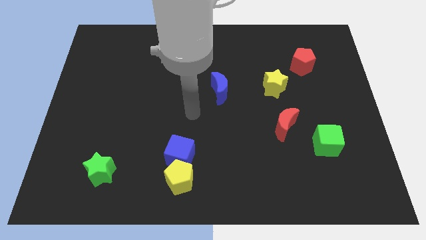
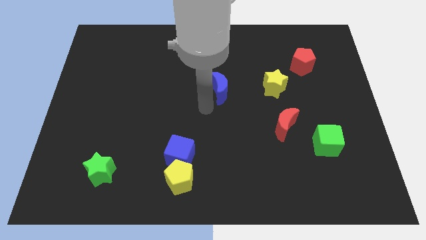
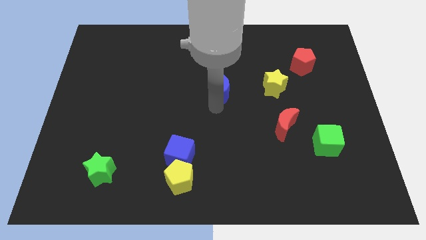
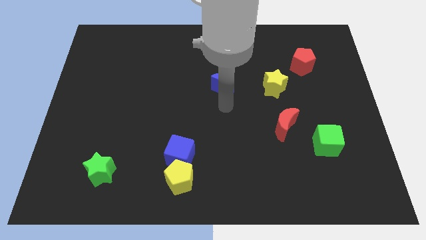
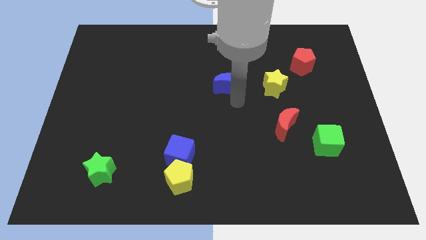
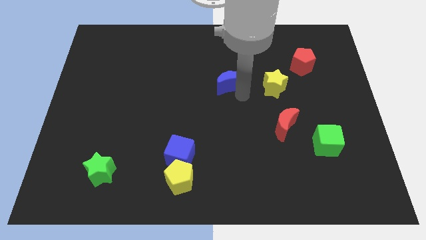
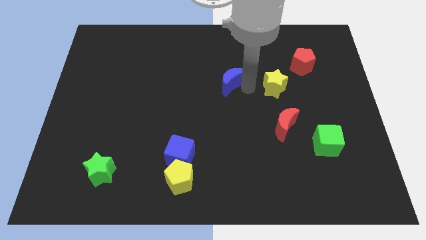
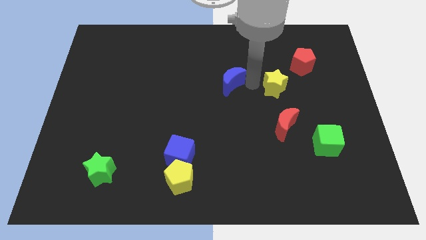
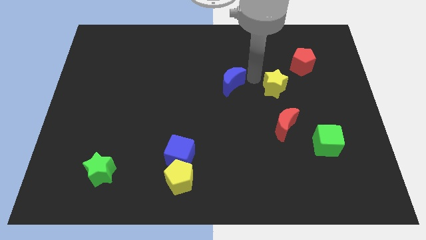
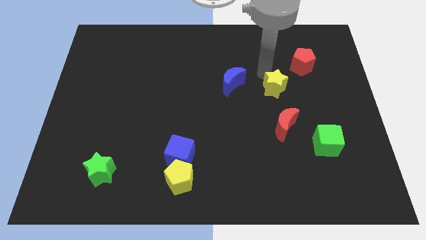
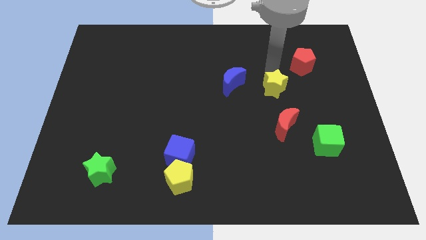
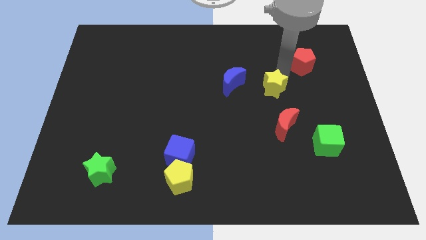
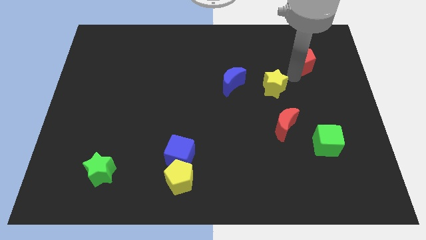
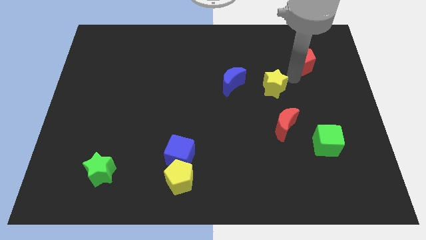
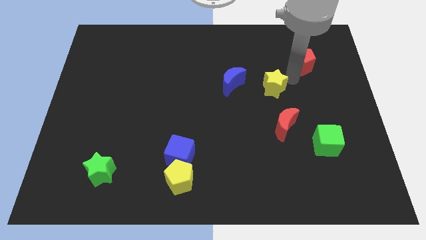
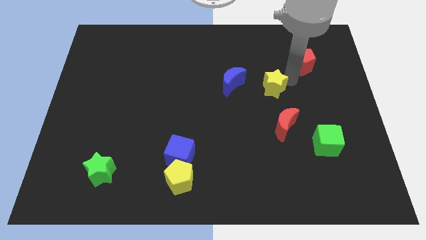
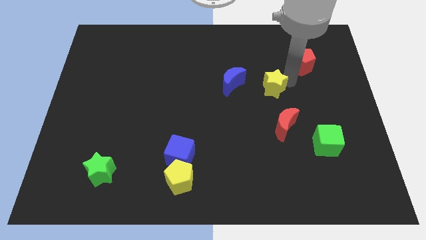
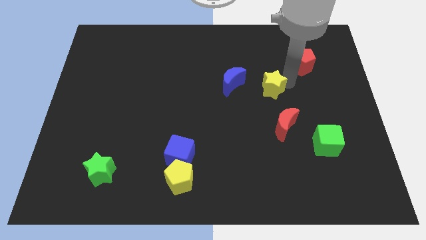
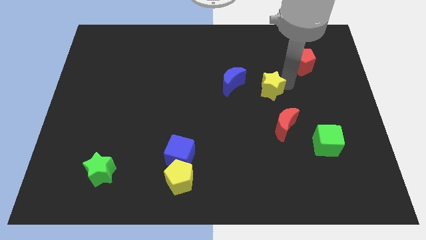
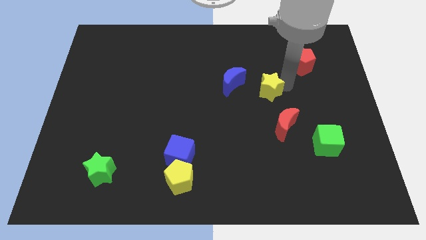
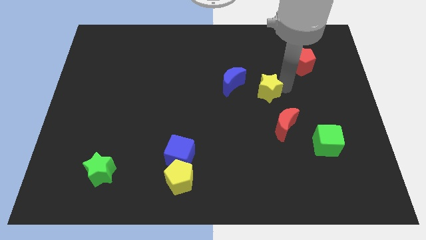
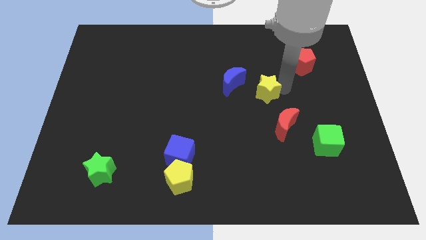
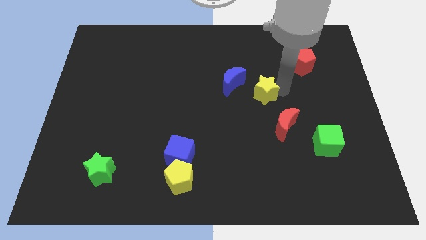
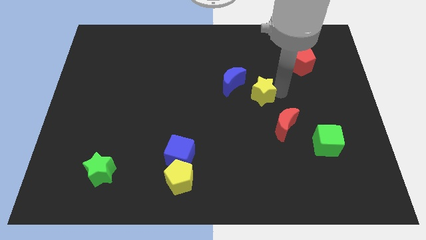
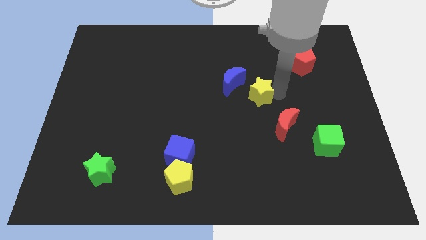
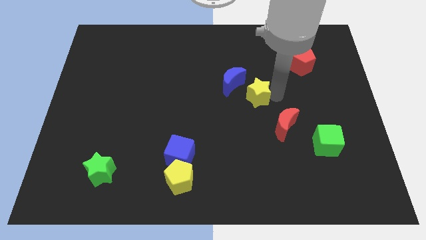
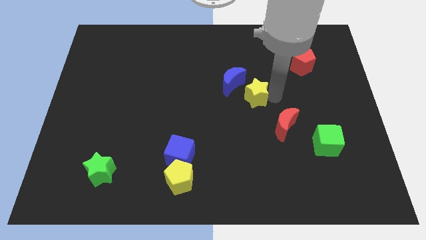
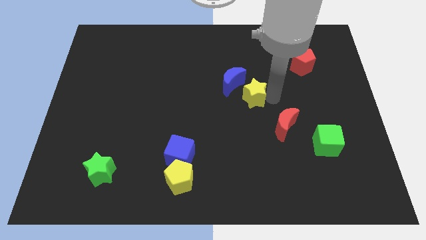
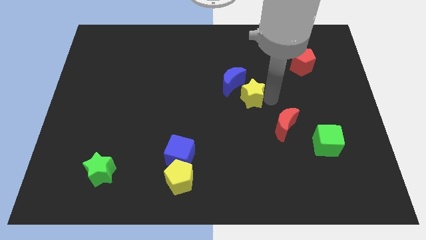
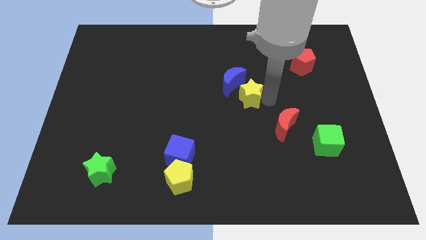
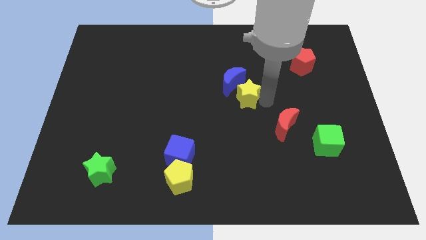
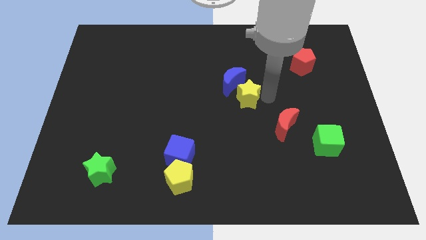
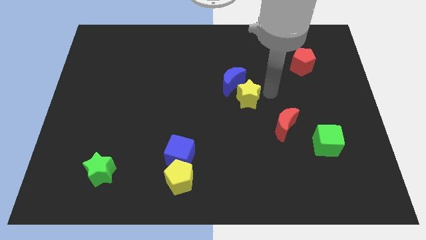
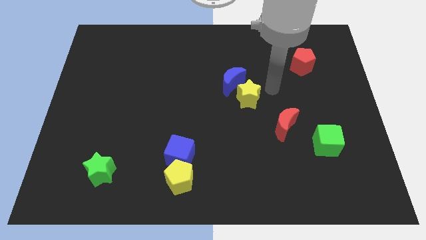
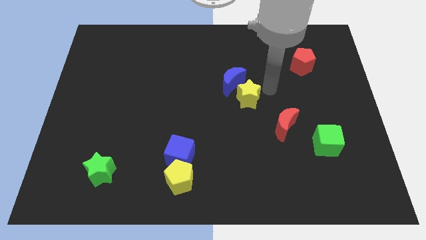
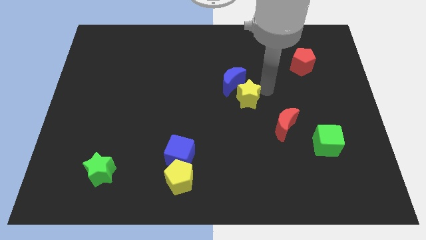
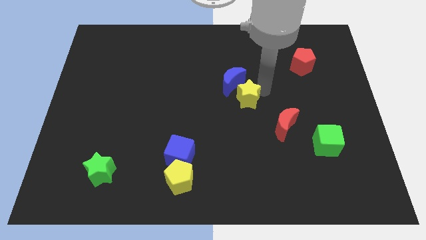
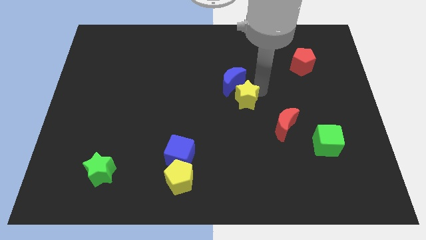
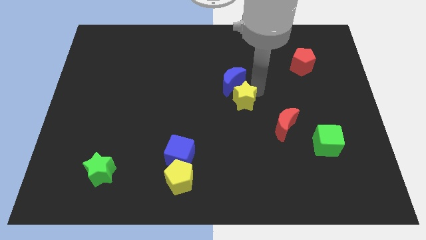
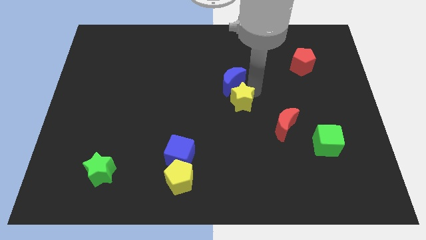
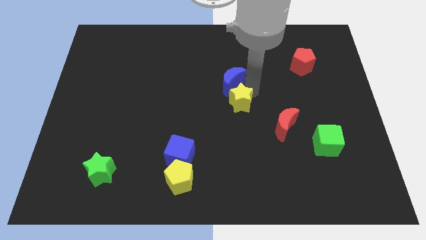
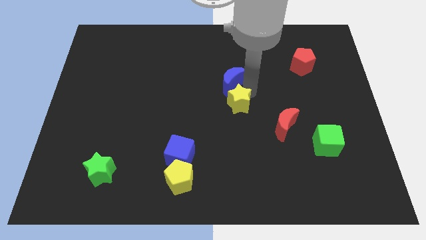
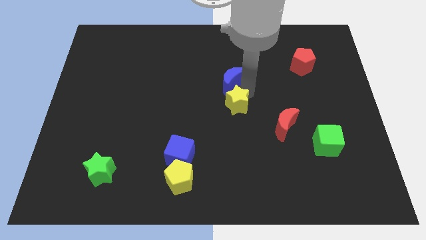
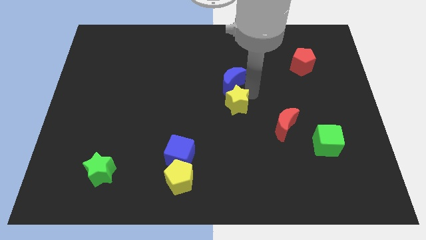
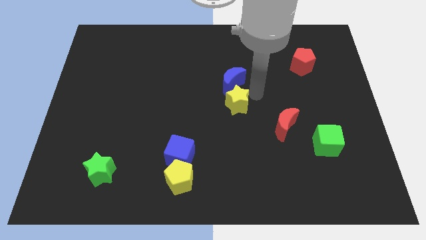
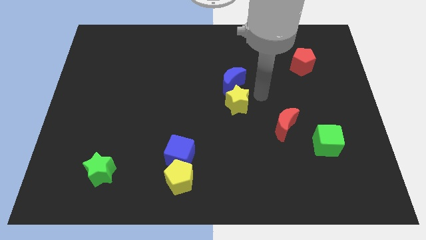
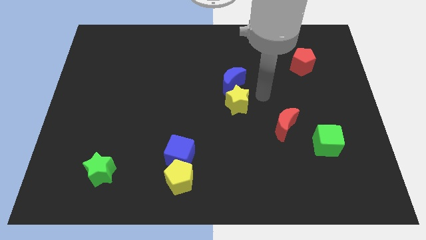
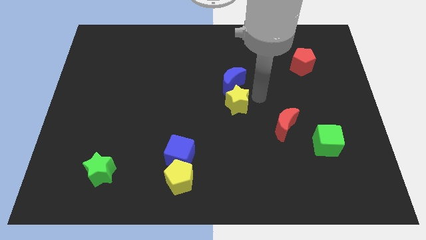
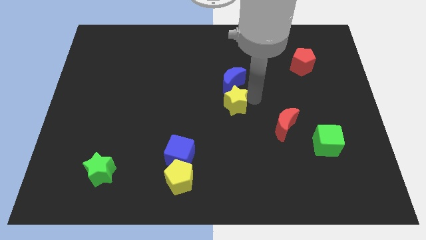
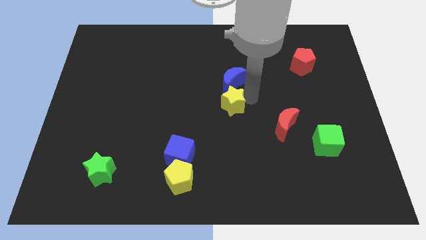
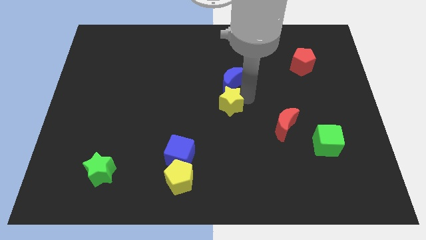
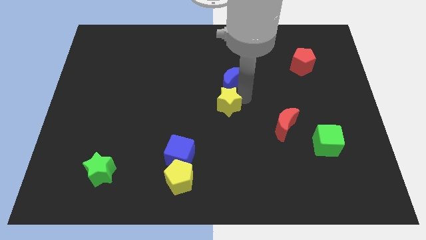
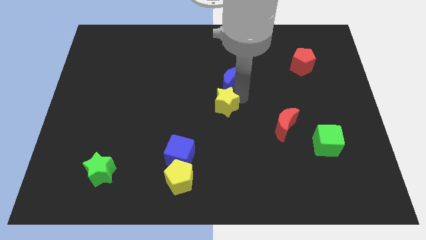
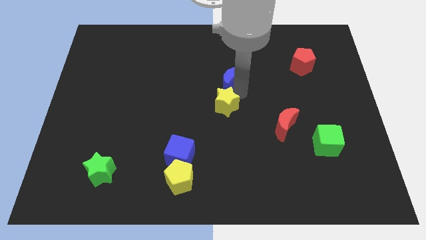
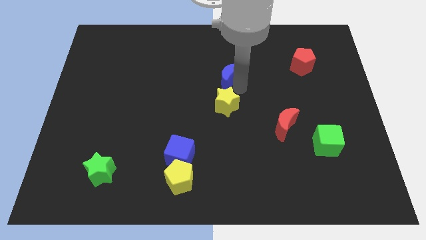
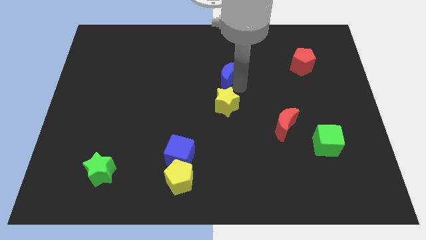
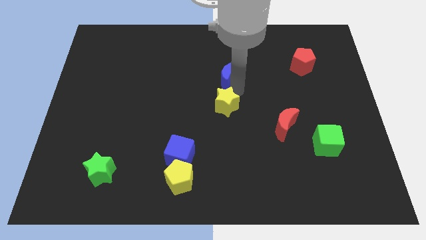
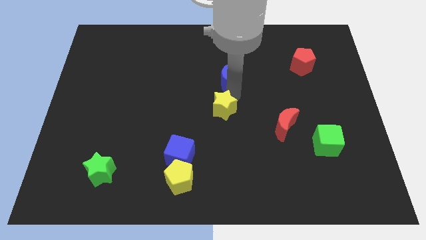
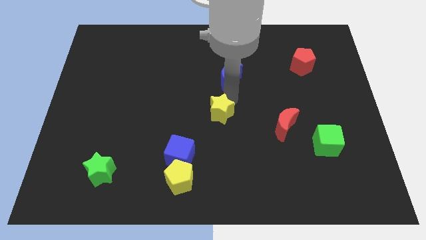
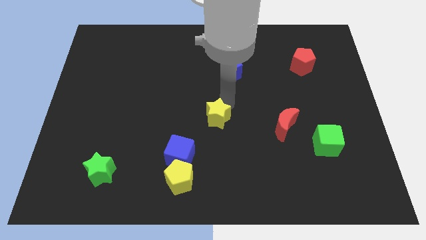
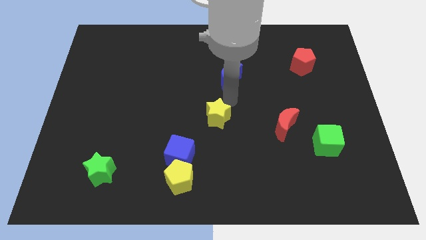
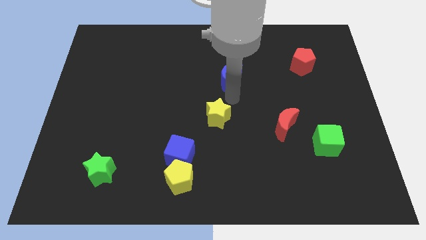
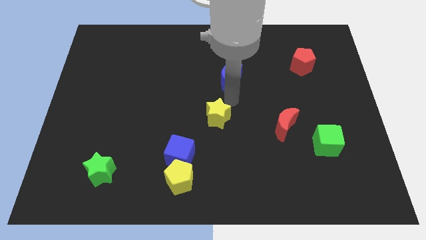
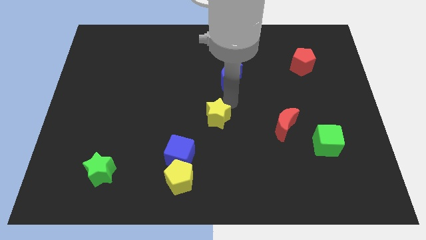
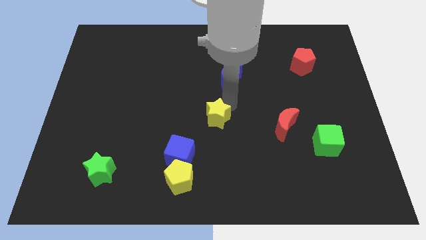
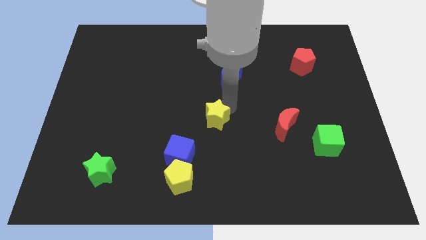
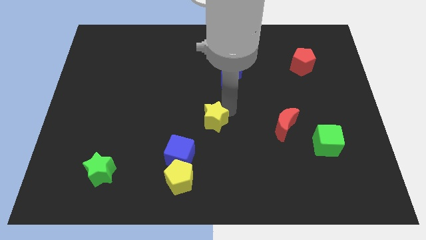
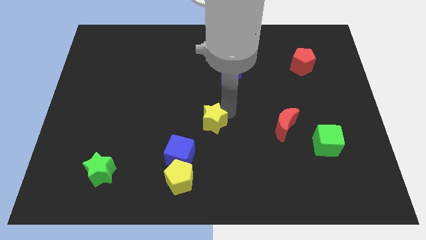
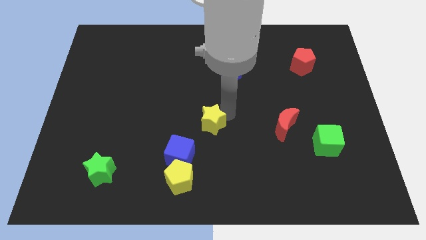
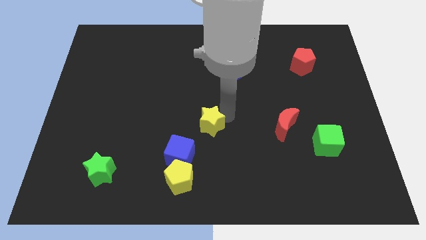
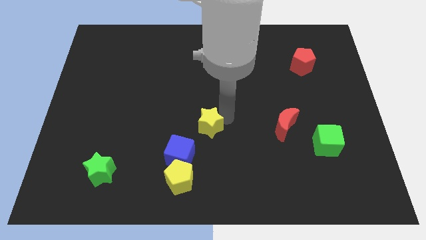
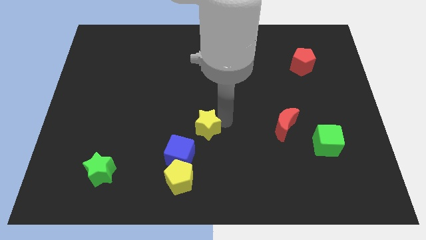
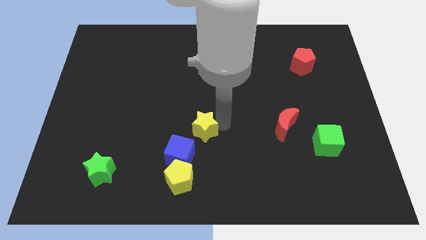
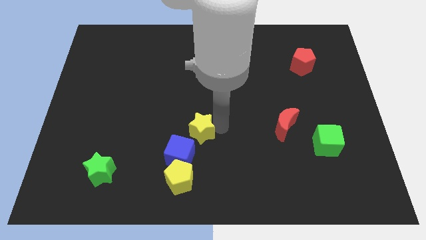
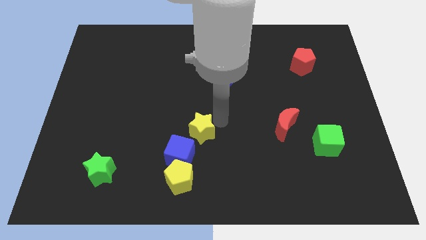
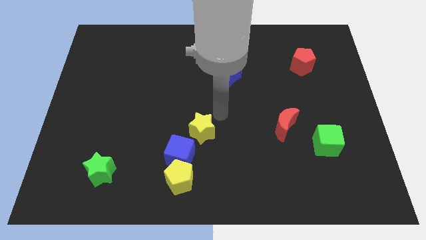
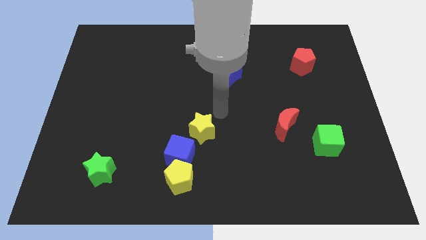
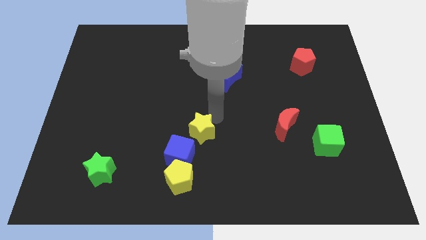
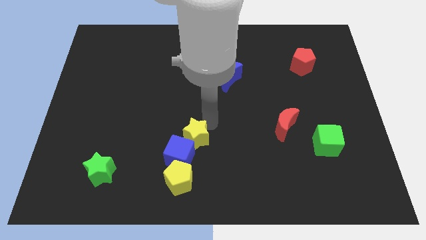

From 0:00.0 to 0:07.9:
move the yellow star next to the blue cube
